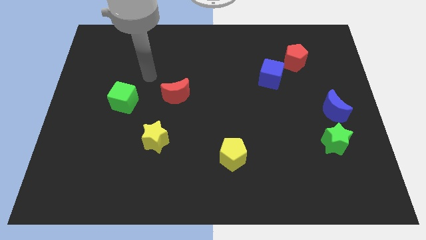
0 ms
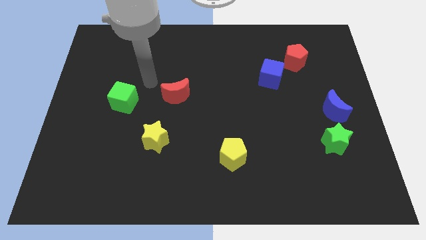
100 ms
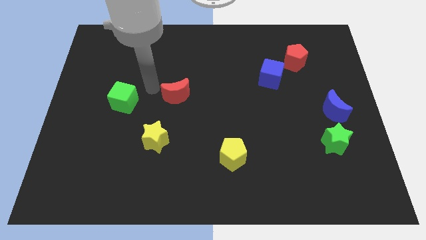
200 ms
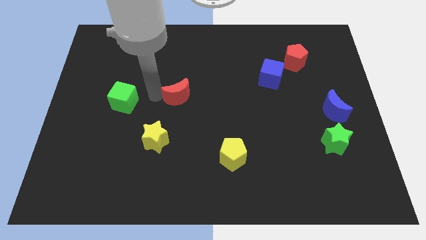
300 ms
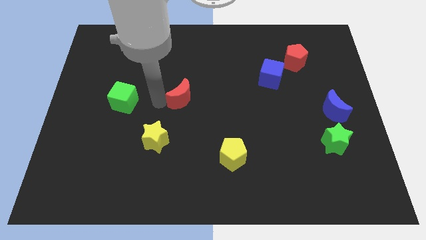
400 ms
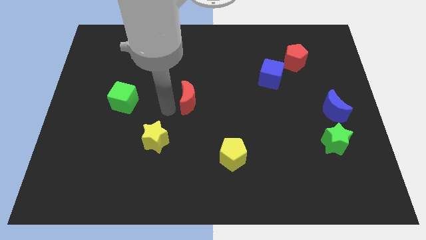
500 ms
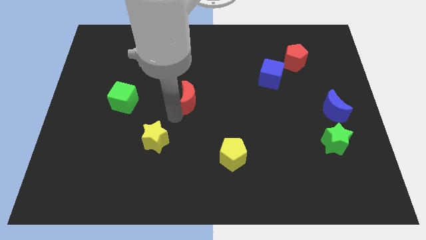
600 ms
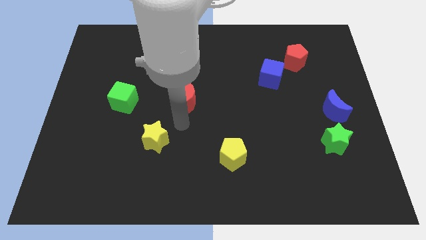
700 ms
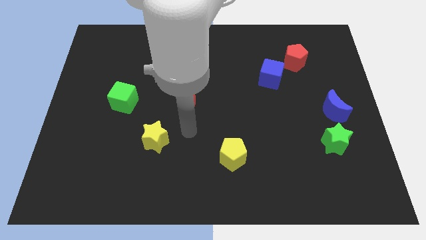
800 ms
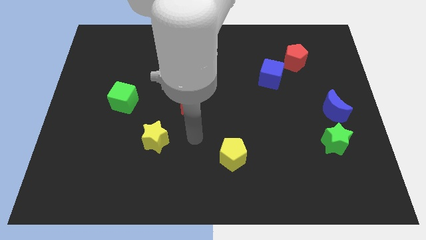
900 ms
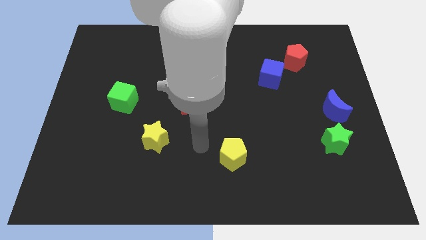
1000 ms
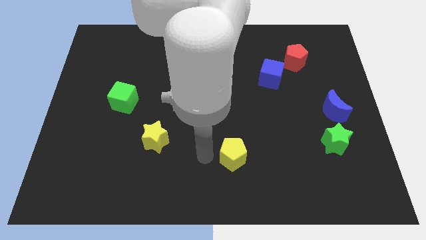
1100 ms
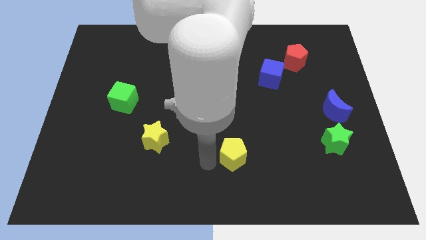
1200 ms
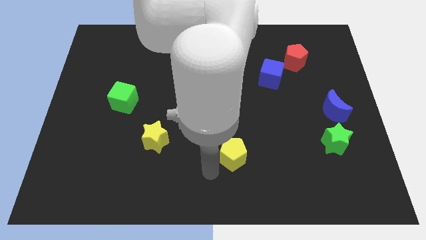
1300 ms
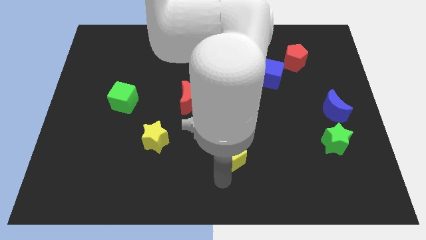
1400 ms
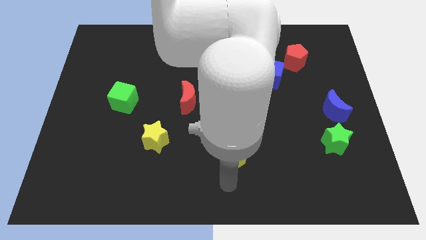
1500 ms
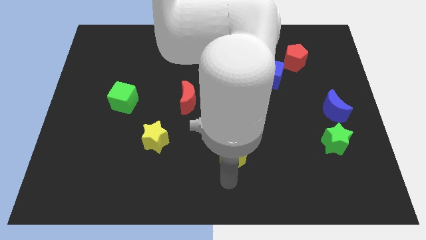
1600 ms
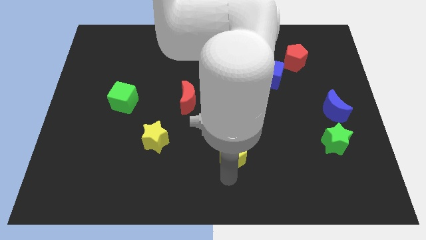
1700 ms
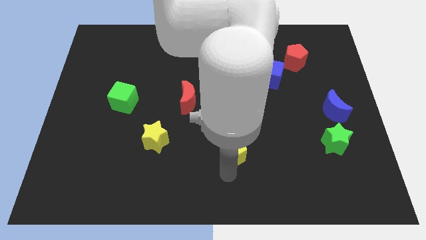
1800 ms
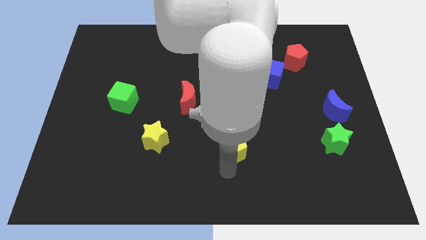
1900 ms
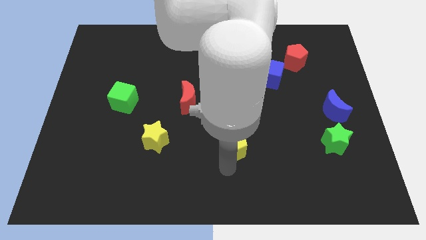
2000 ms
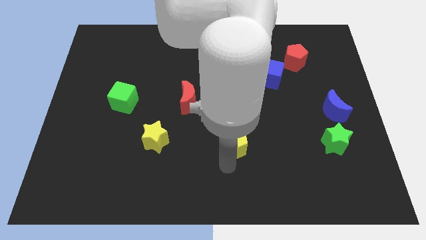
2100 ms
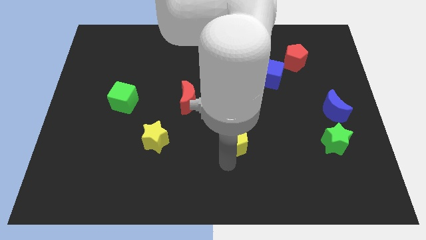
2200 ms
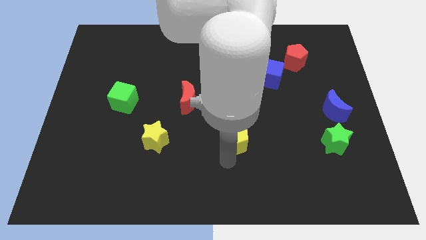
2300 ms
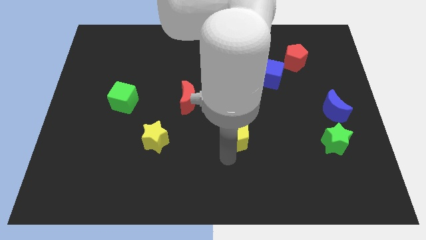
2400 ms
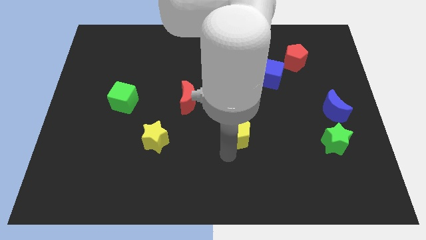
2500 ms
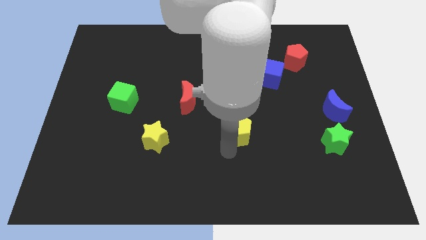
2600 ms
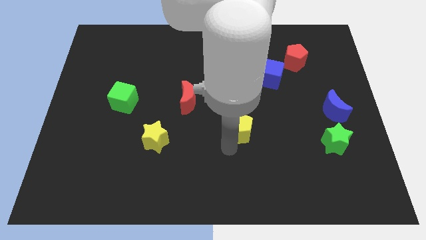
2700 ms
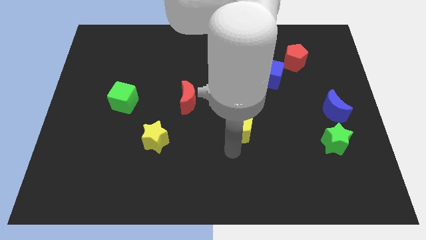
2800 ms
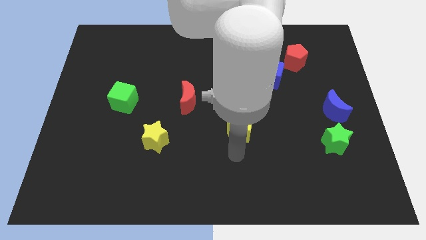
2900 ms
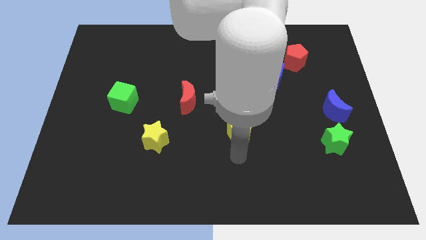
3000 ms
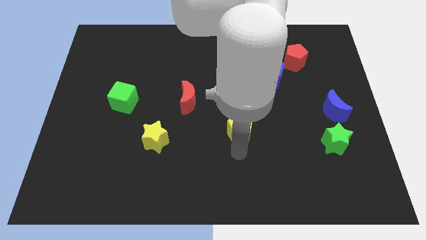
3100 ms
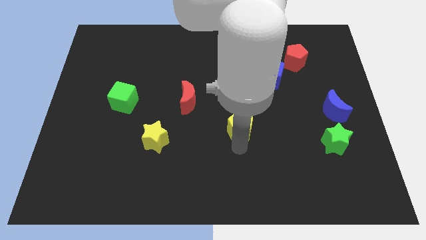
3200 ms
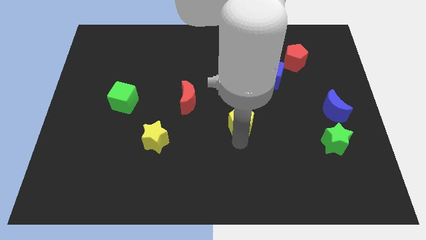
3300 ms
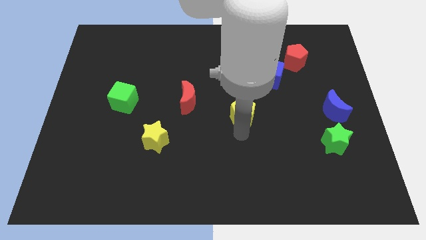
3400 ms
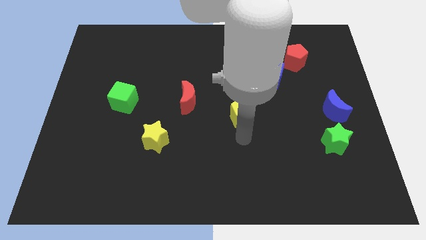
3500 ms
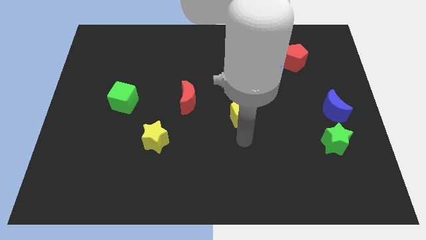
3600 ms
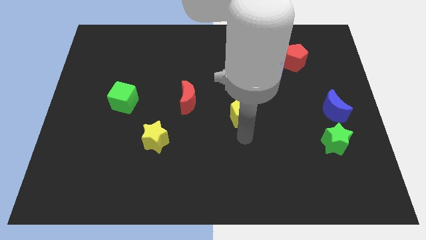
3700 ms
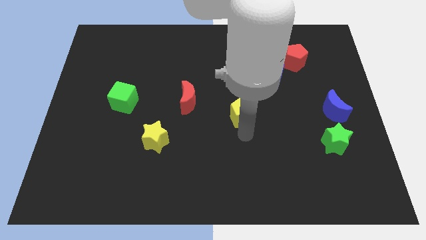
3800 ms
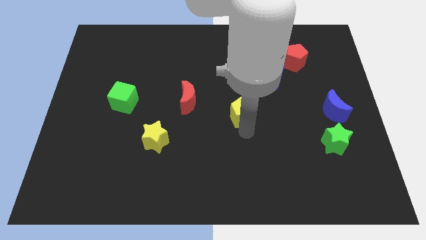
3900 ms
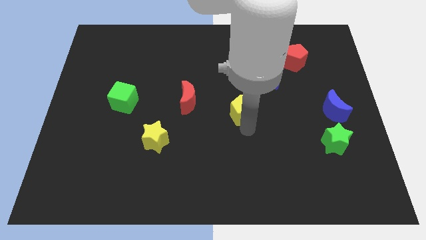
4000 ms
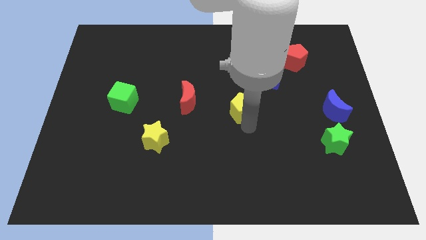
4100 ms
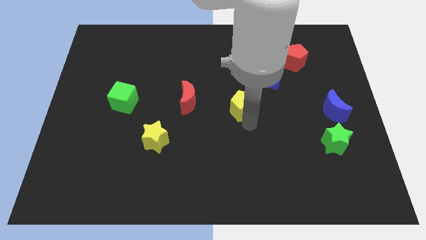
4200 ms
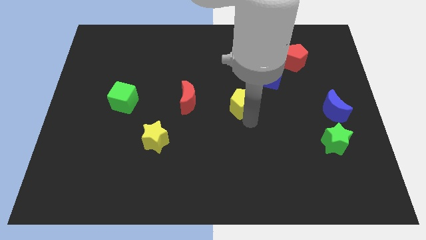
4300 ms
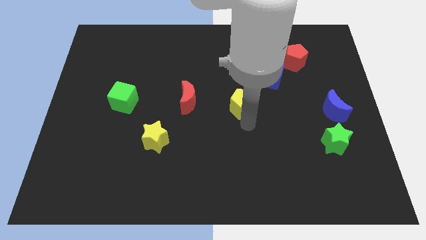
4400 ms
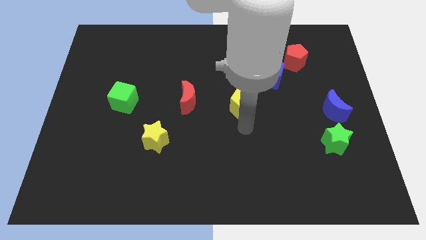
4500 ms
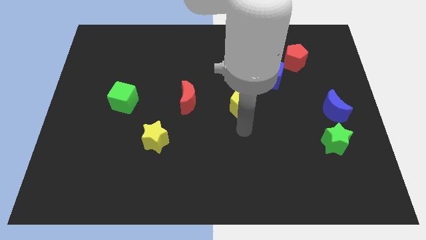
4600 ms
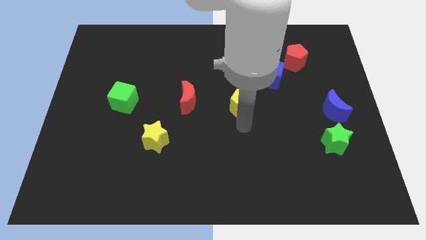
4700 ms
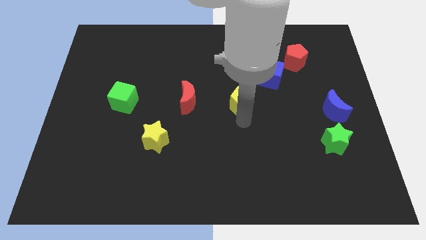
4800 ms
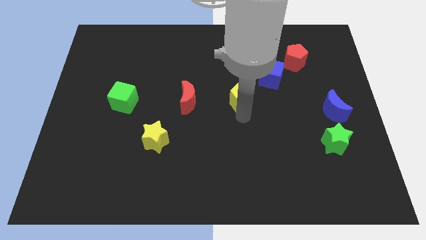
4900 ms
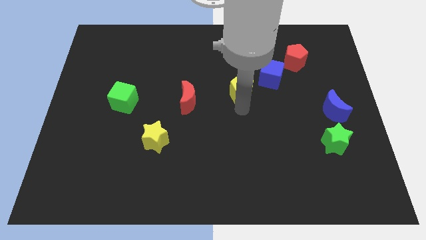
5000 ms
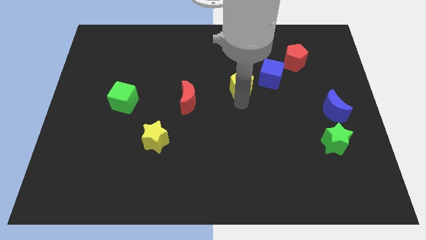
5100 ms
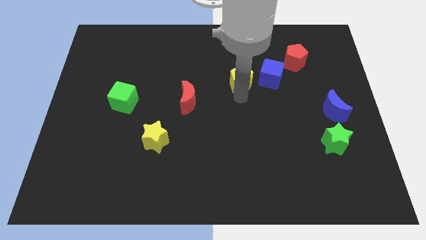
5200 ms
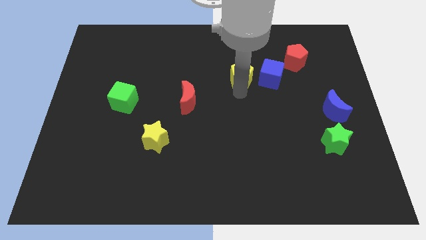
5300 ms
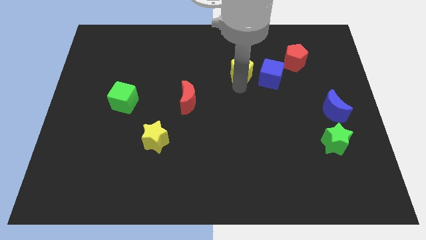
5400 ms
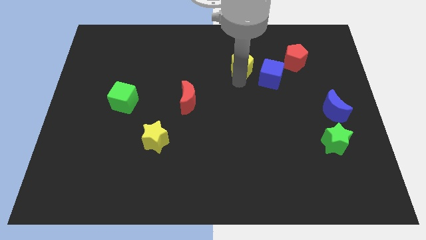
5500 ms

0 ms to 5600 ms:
put the yellow pentagon to the left of the red pentagon

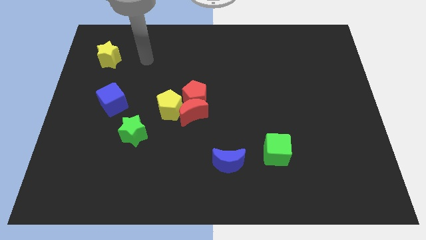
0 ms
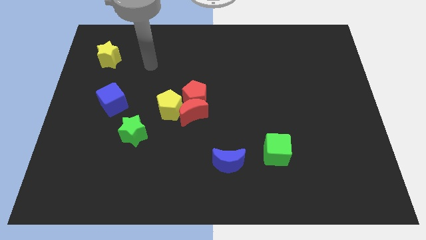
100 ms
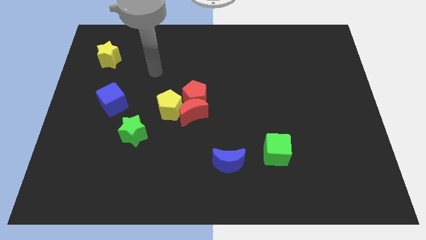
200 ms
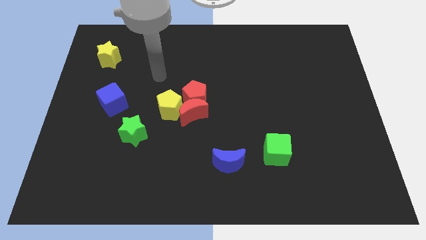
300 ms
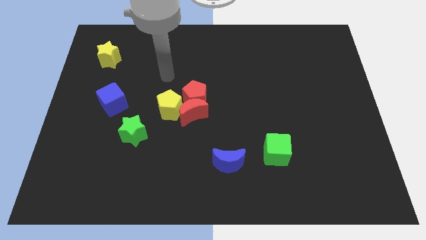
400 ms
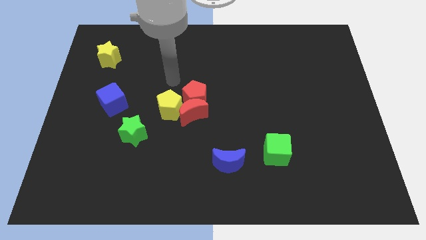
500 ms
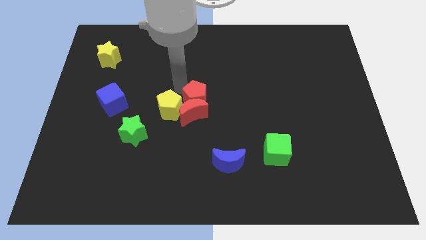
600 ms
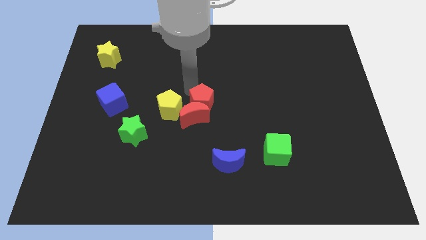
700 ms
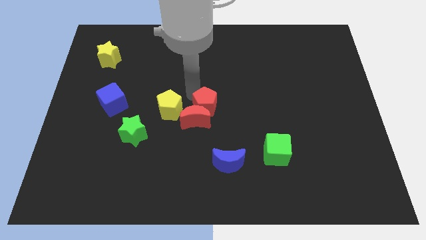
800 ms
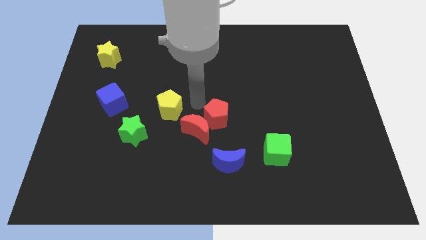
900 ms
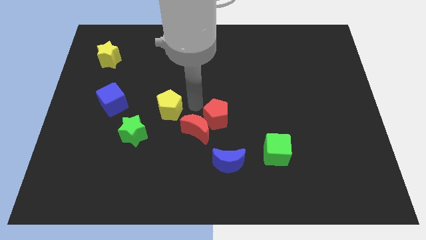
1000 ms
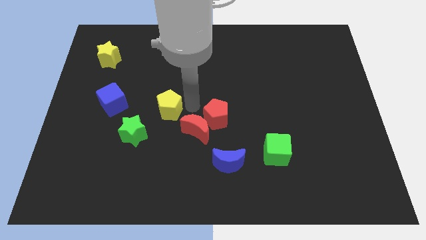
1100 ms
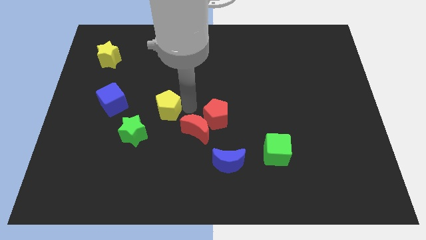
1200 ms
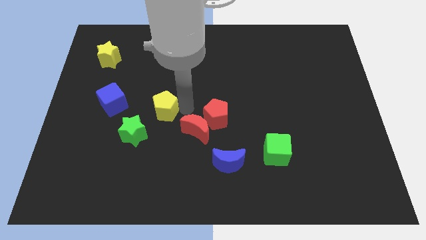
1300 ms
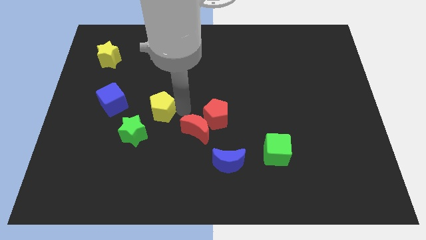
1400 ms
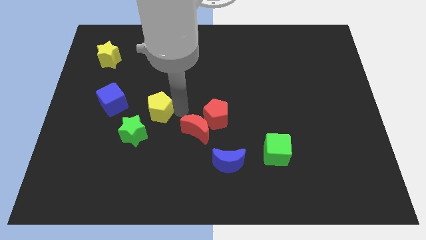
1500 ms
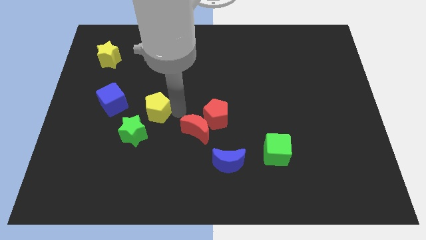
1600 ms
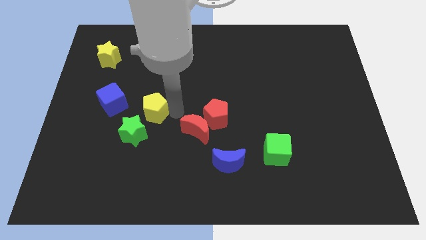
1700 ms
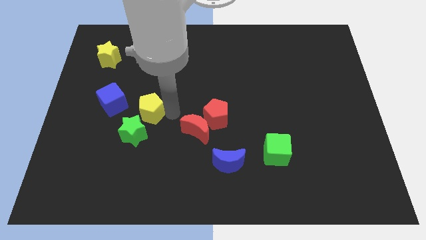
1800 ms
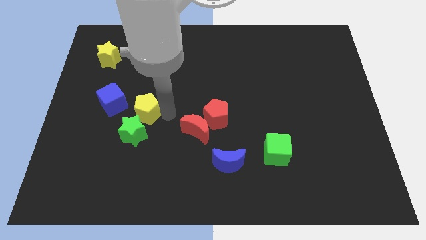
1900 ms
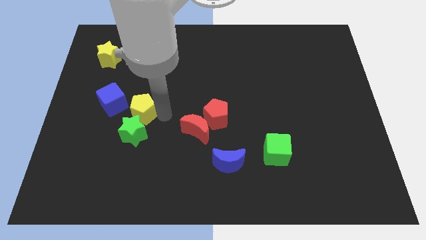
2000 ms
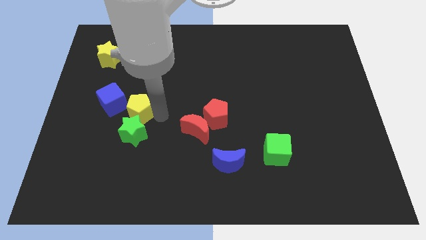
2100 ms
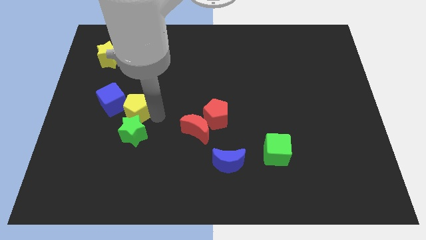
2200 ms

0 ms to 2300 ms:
put the yellow pentagon to the top left side of the green star
